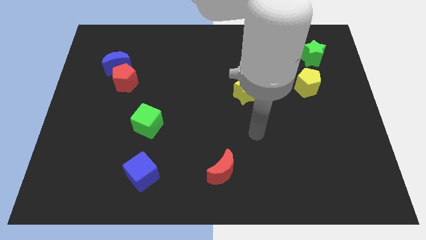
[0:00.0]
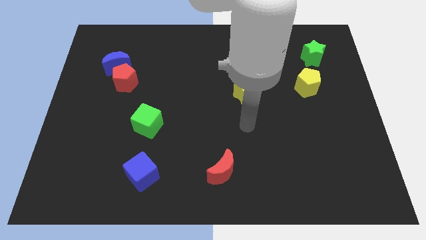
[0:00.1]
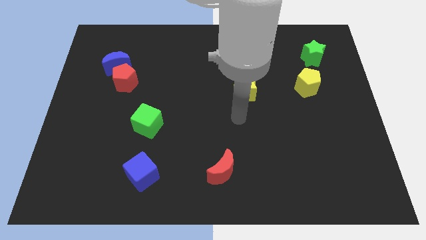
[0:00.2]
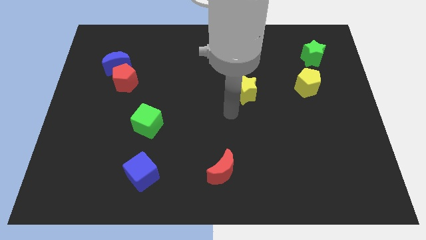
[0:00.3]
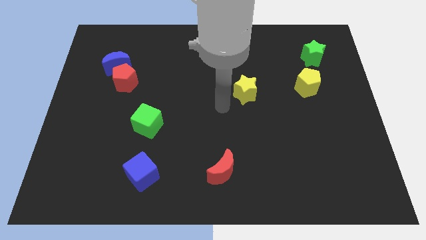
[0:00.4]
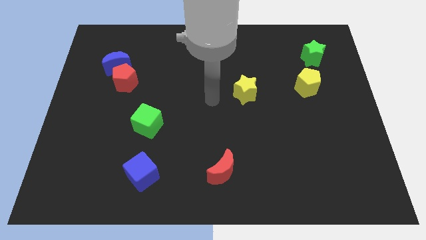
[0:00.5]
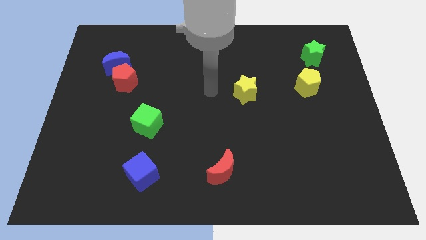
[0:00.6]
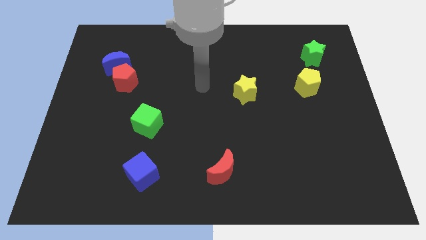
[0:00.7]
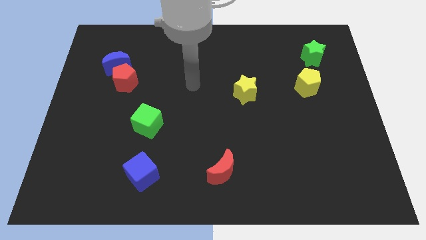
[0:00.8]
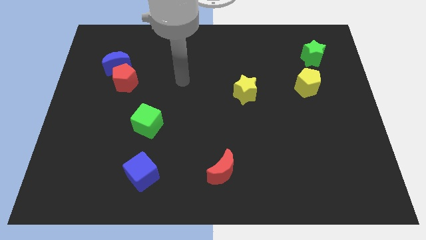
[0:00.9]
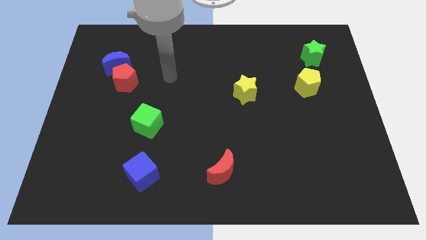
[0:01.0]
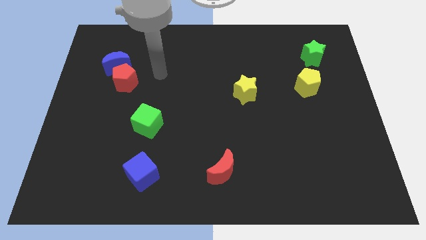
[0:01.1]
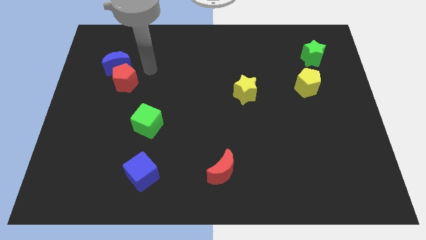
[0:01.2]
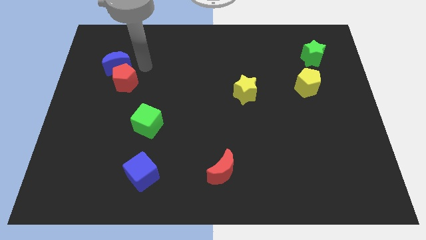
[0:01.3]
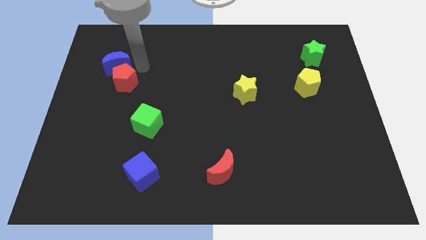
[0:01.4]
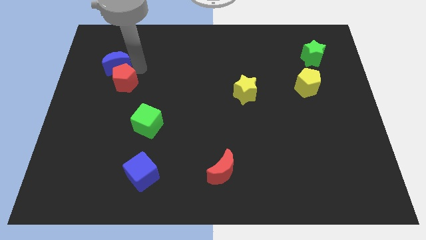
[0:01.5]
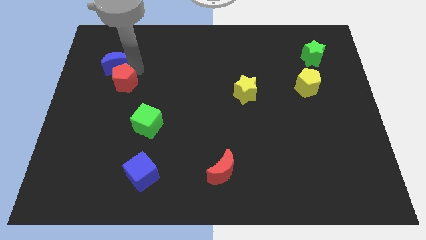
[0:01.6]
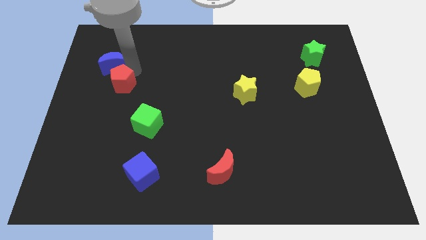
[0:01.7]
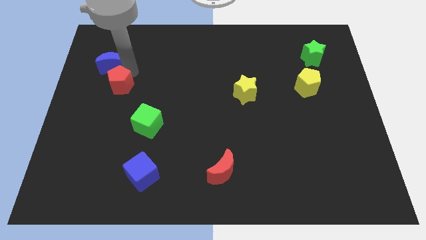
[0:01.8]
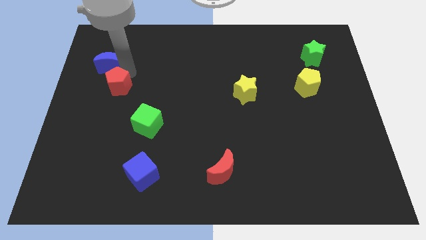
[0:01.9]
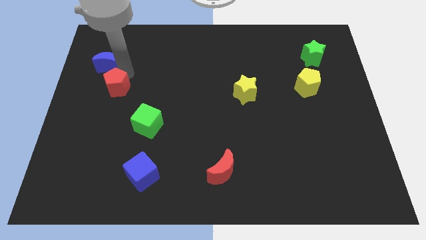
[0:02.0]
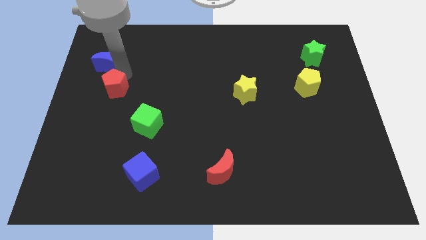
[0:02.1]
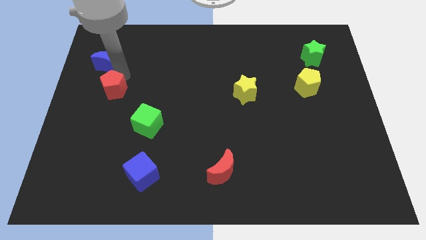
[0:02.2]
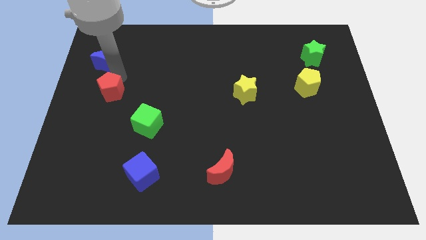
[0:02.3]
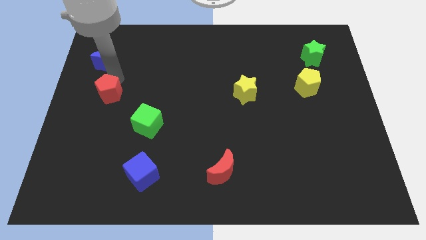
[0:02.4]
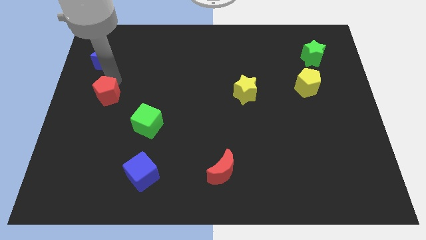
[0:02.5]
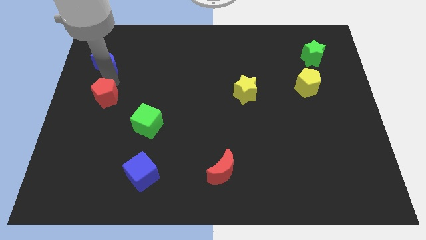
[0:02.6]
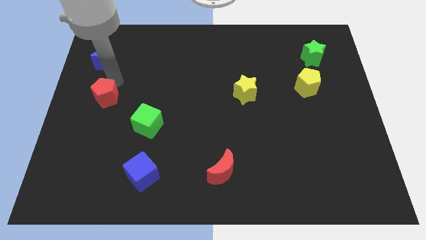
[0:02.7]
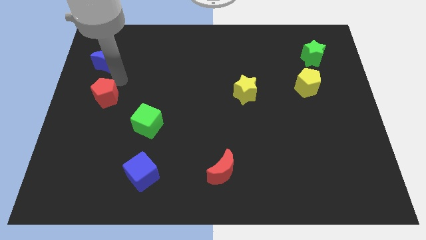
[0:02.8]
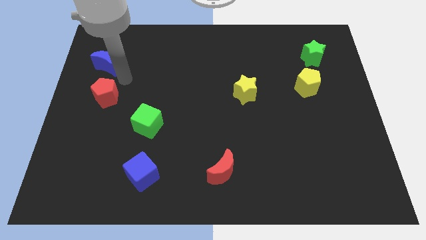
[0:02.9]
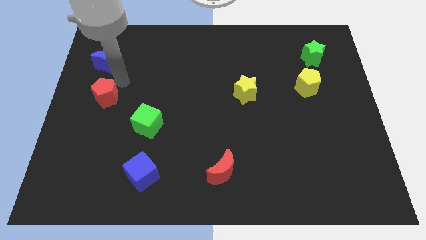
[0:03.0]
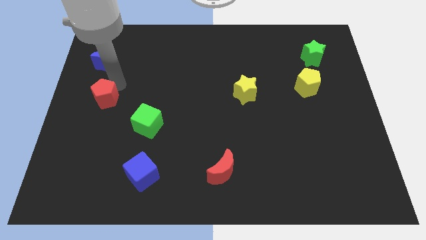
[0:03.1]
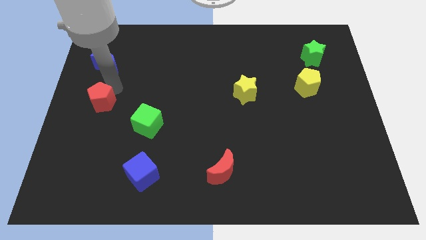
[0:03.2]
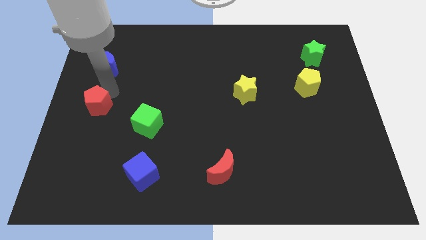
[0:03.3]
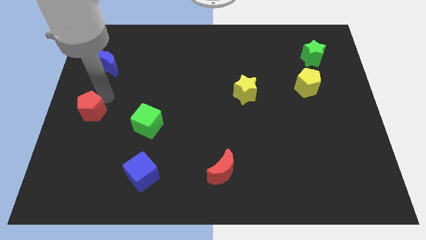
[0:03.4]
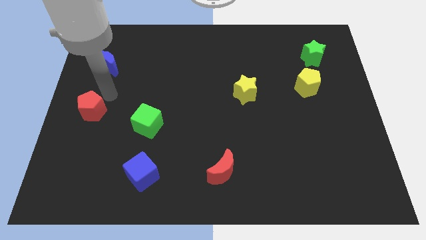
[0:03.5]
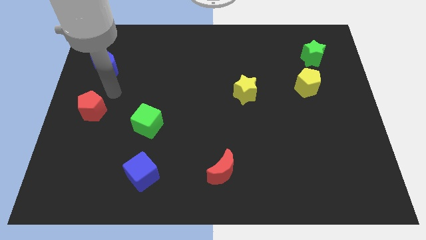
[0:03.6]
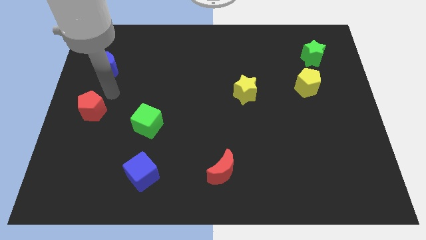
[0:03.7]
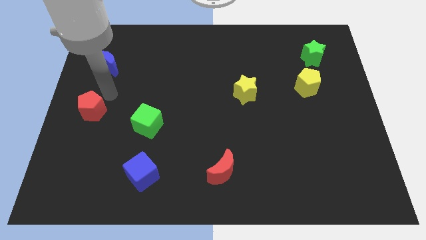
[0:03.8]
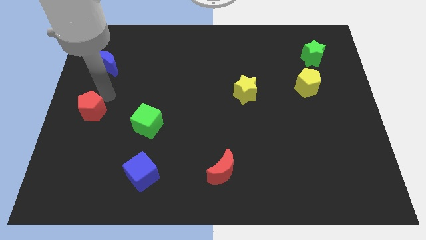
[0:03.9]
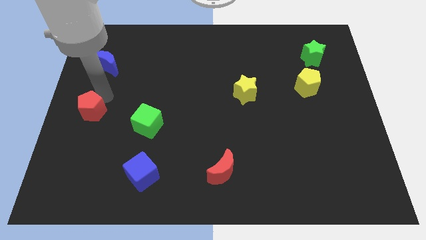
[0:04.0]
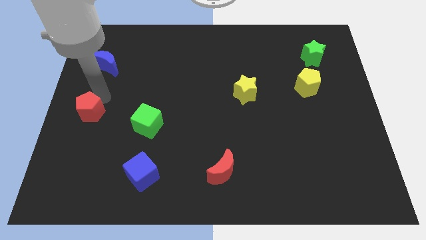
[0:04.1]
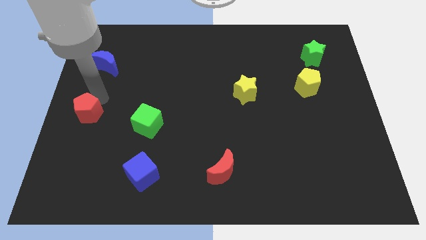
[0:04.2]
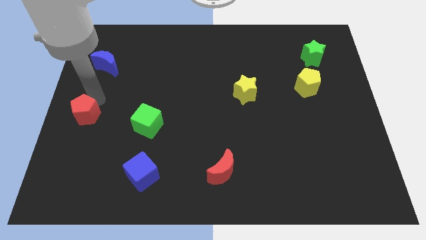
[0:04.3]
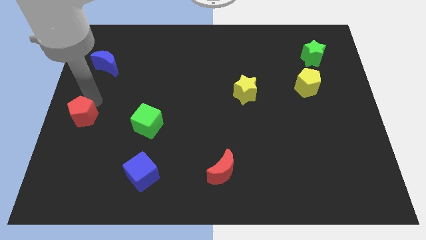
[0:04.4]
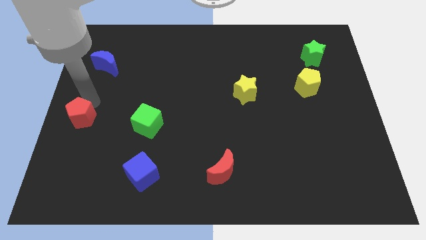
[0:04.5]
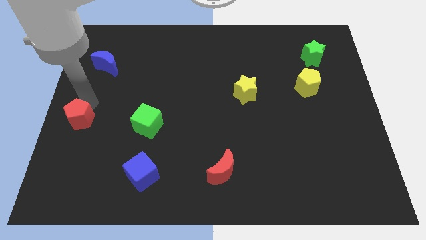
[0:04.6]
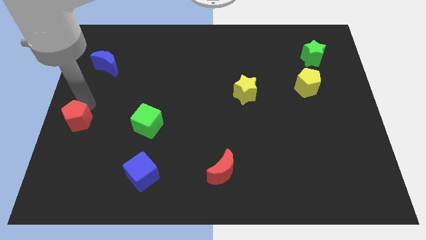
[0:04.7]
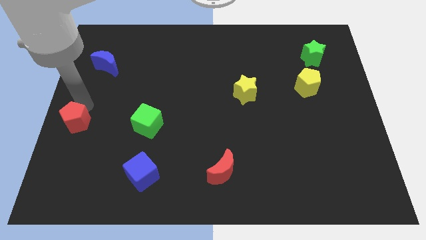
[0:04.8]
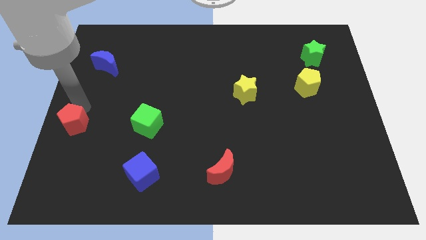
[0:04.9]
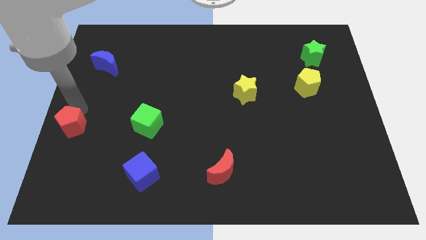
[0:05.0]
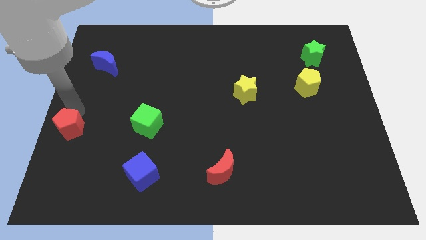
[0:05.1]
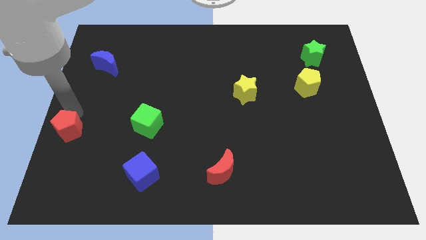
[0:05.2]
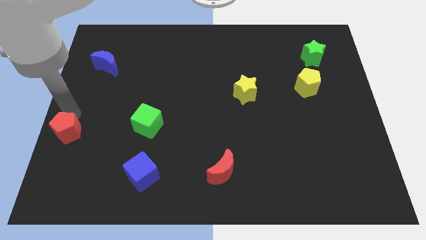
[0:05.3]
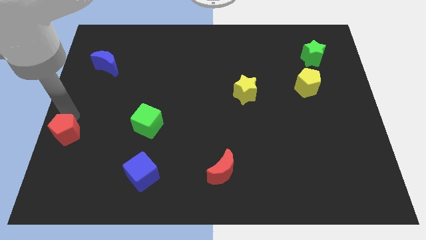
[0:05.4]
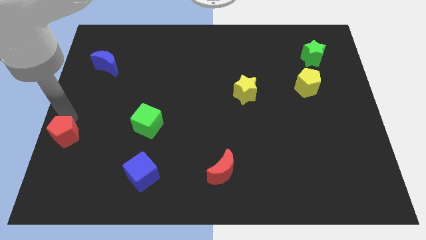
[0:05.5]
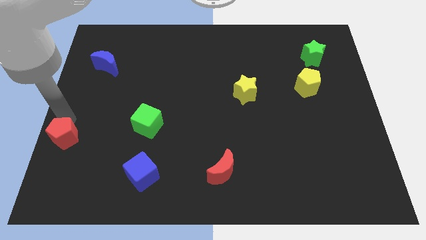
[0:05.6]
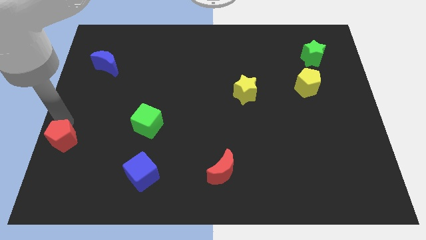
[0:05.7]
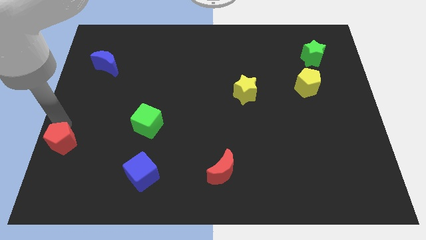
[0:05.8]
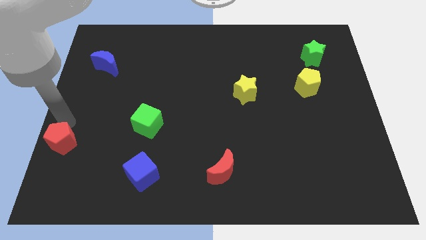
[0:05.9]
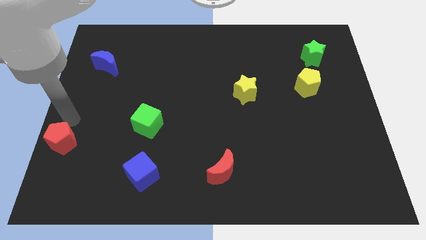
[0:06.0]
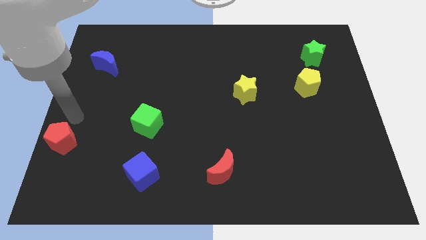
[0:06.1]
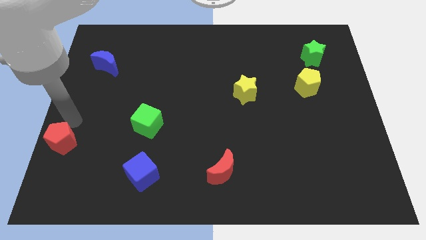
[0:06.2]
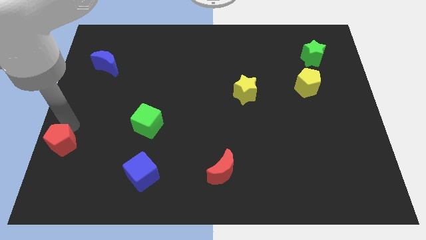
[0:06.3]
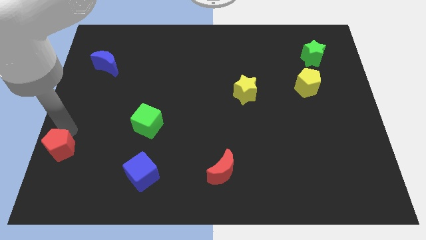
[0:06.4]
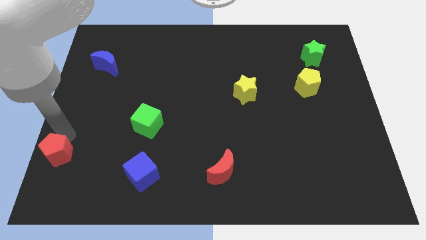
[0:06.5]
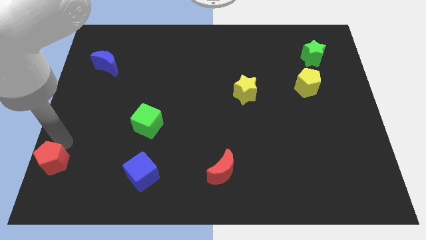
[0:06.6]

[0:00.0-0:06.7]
push the red pentagon to the bottom left corner
